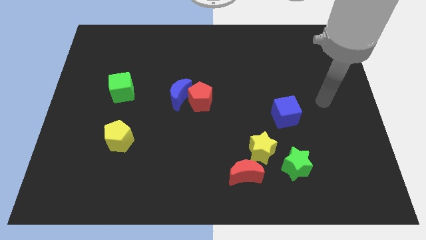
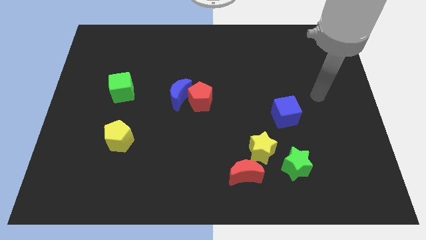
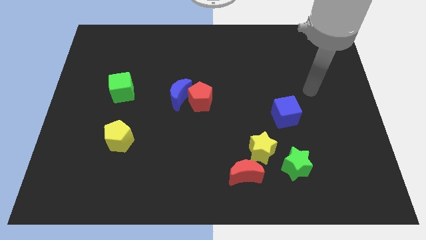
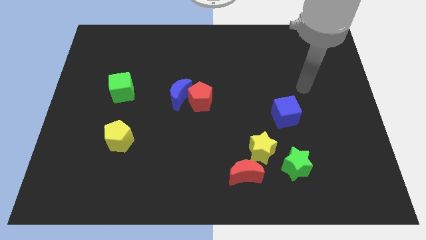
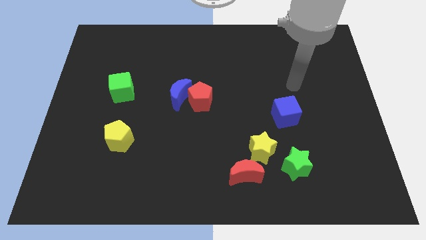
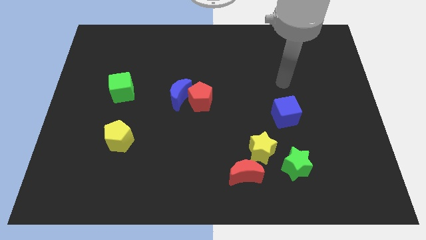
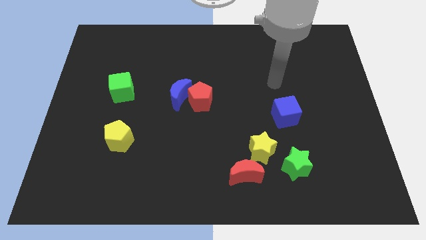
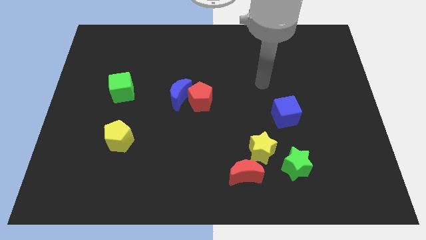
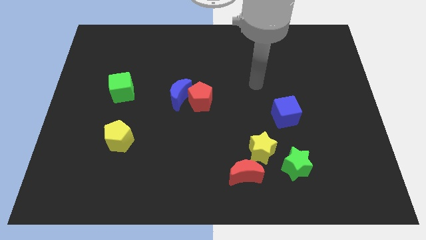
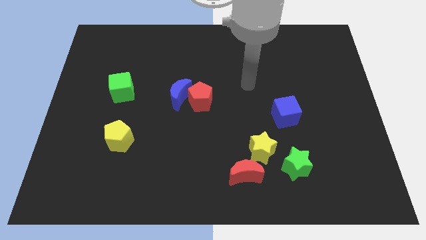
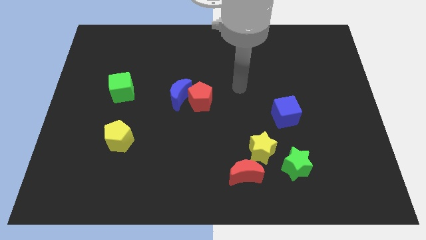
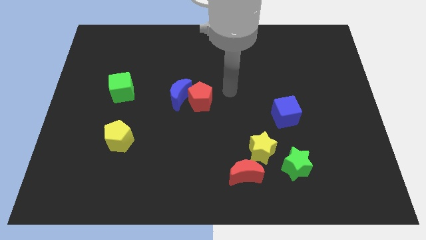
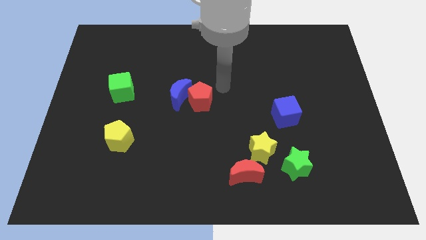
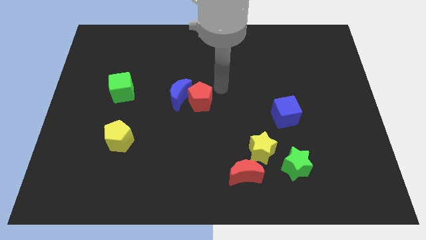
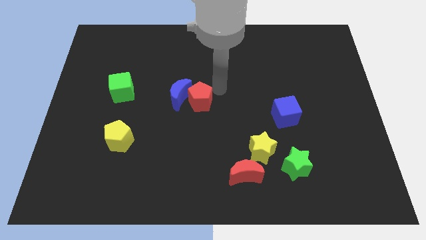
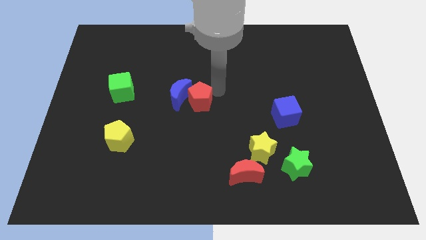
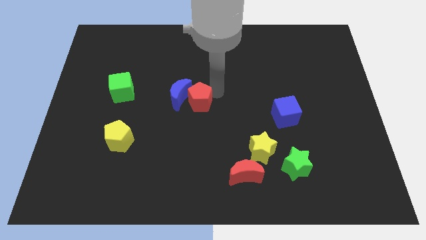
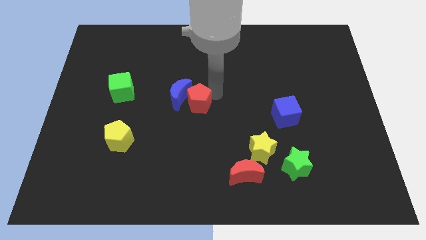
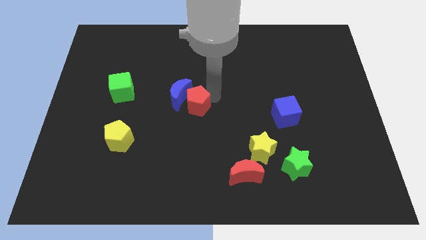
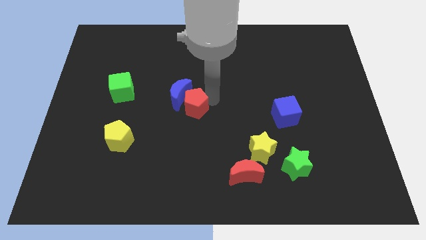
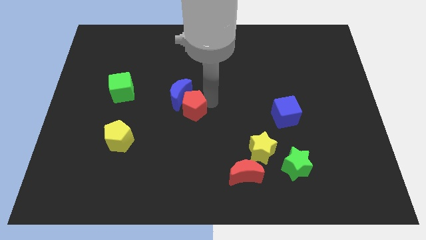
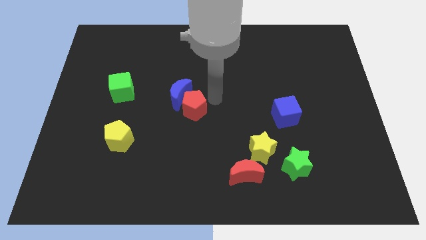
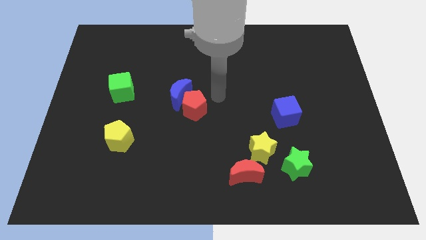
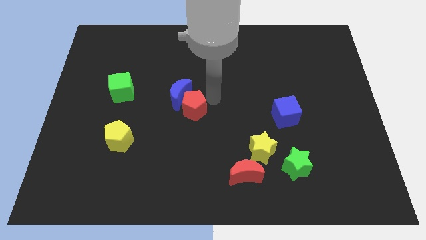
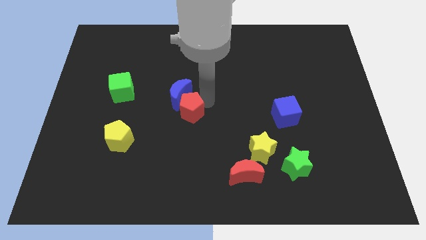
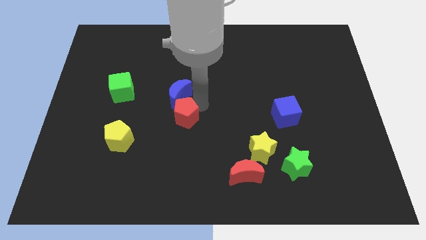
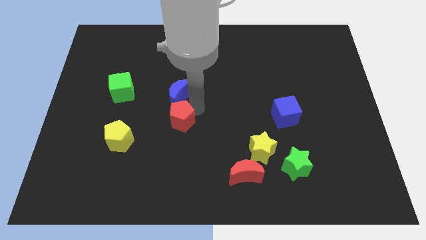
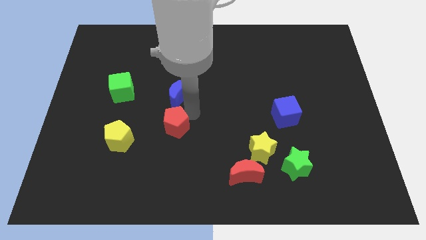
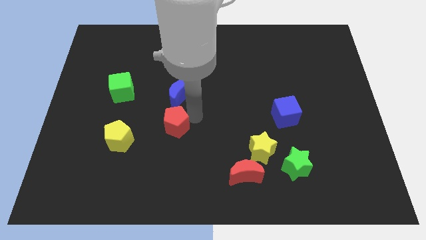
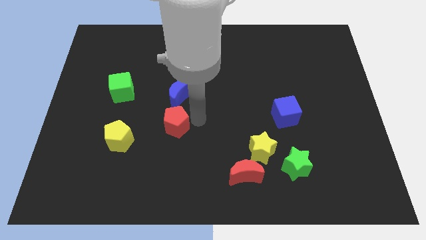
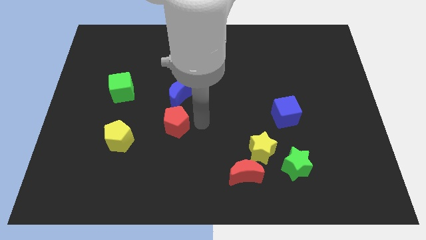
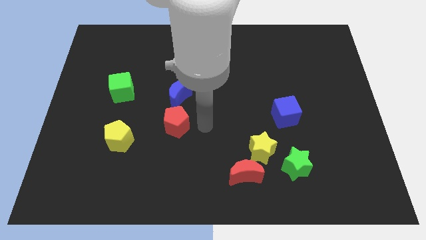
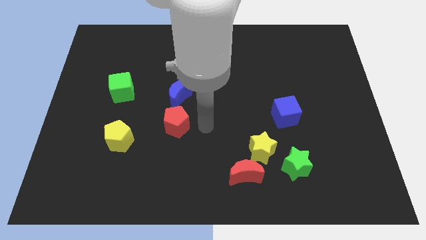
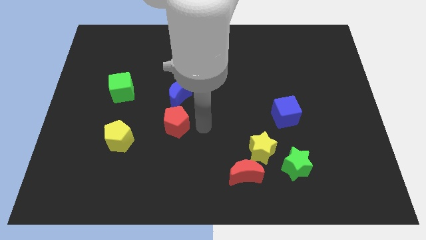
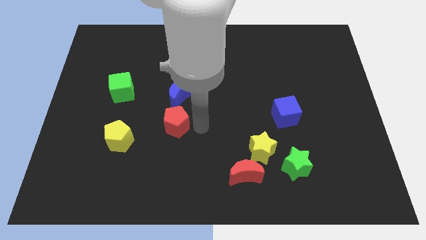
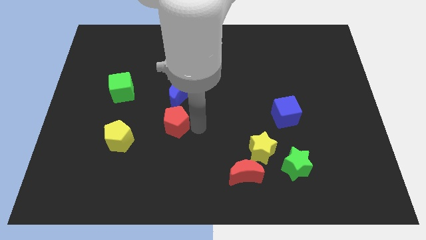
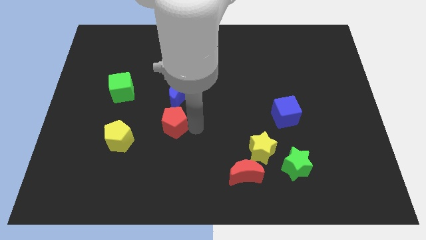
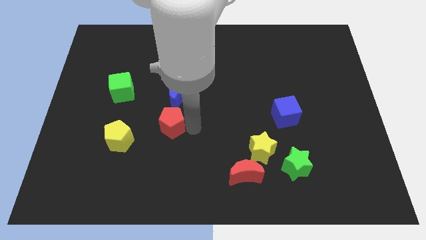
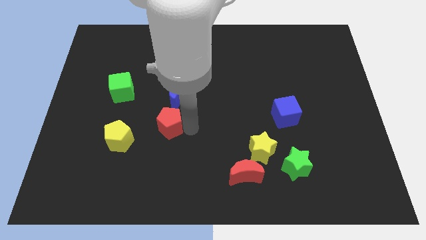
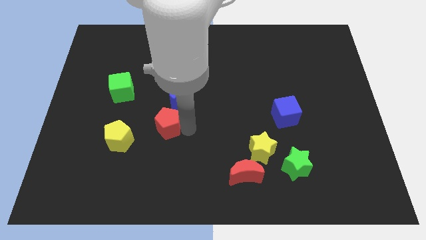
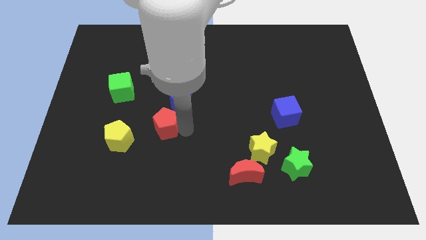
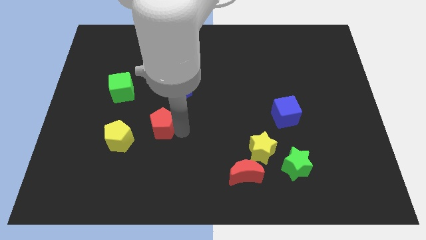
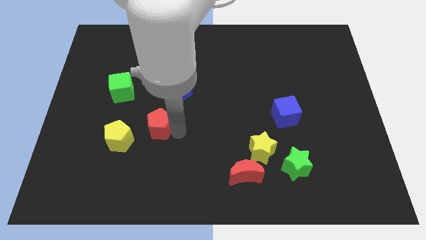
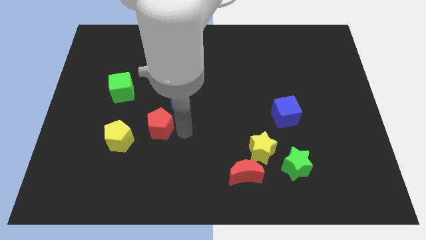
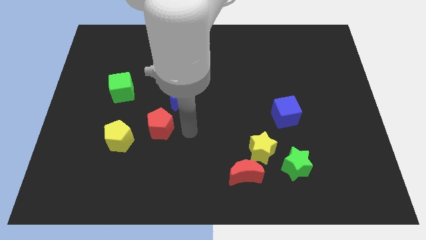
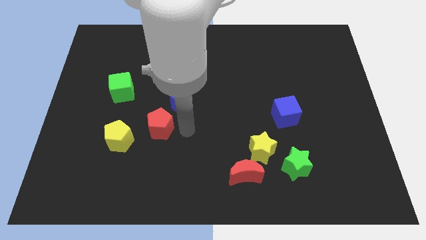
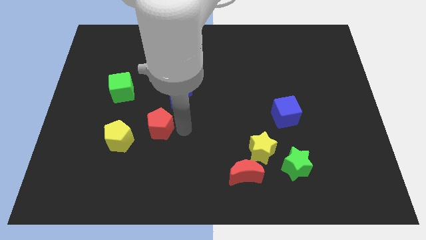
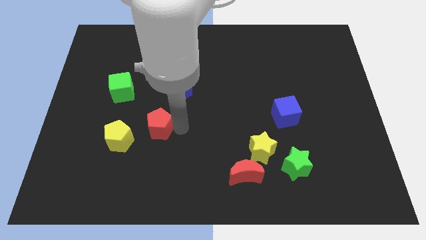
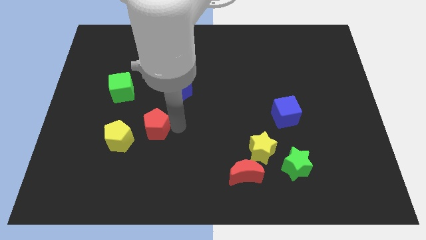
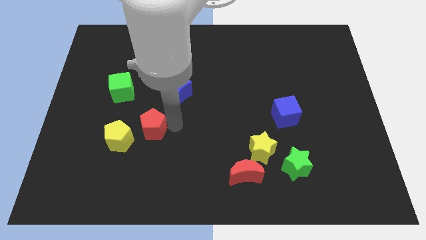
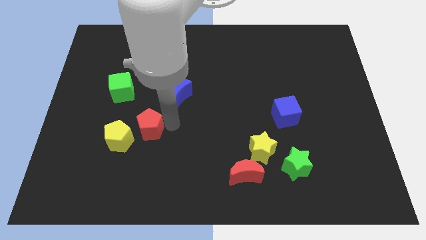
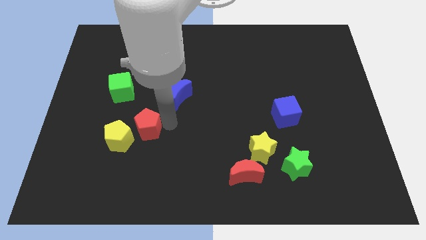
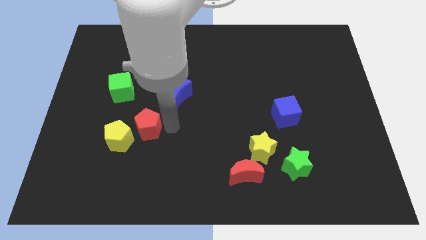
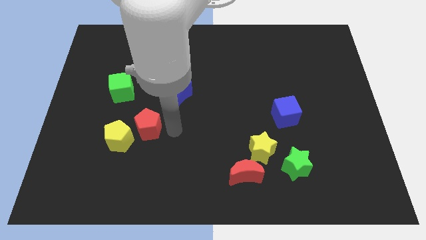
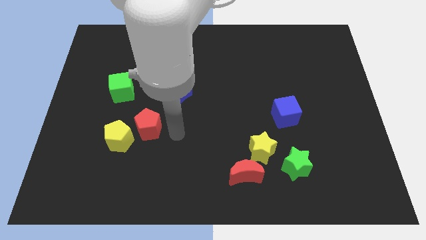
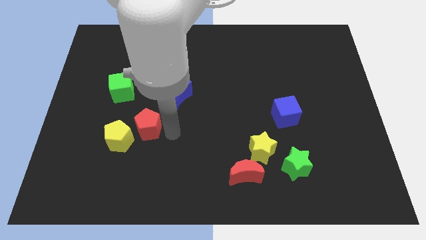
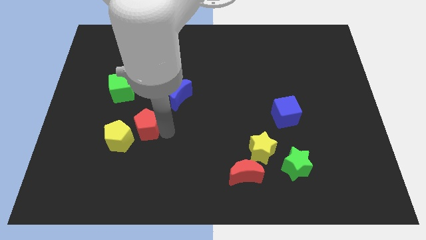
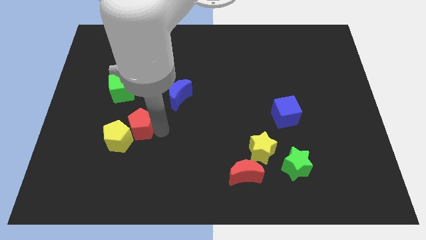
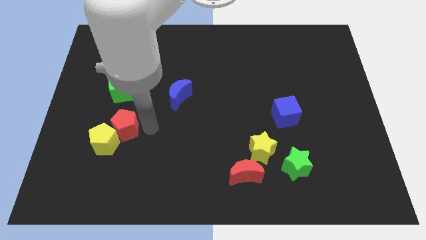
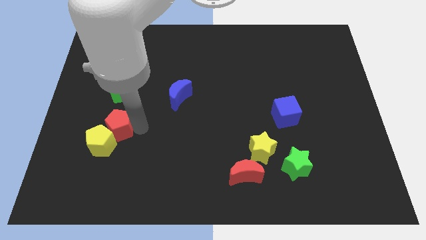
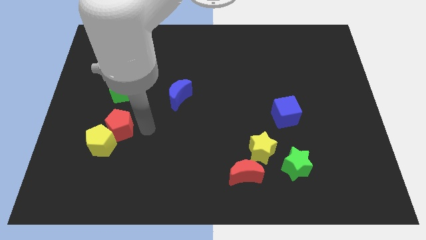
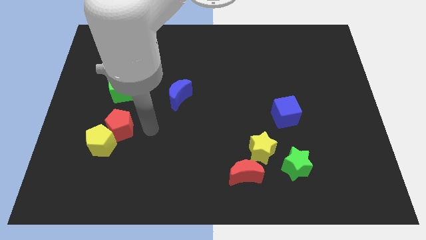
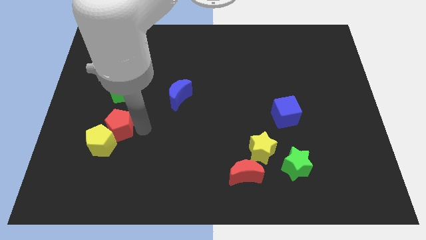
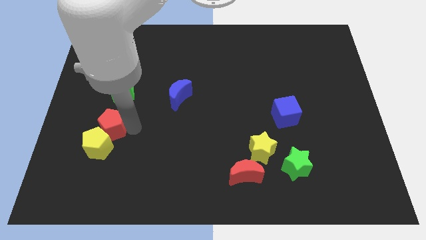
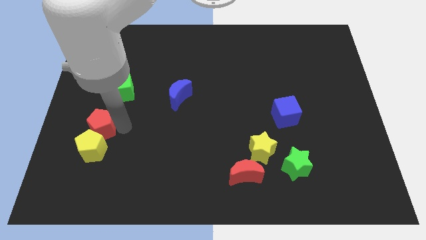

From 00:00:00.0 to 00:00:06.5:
push the red pentagon to the top left side of the yellow pentagon
